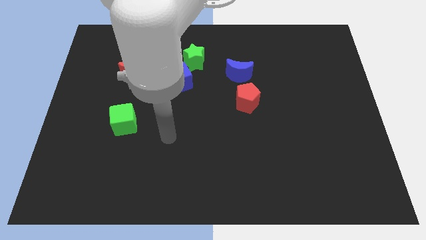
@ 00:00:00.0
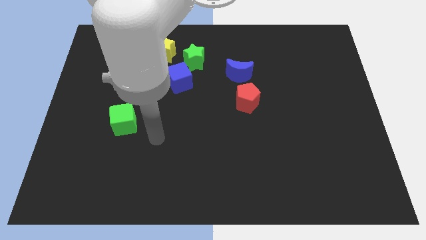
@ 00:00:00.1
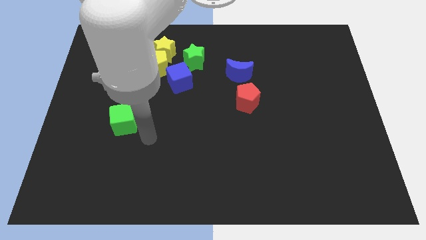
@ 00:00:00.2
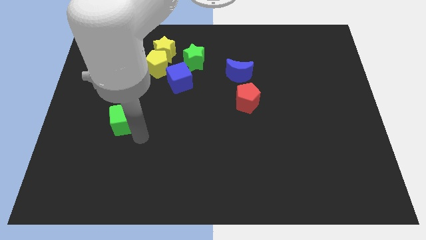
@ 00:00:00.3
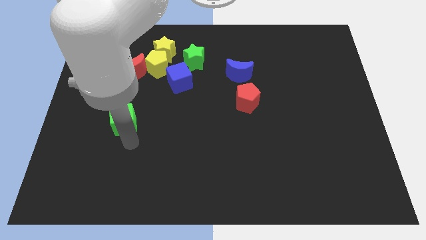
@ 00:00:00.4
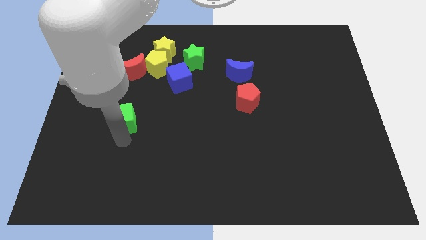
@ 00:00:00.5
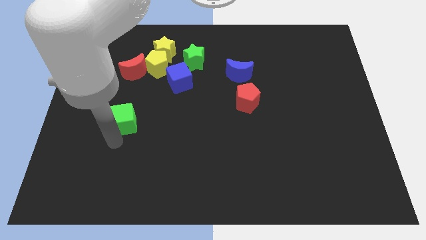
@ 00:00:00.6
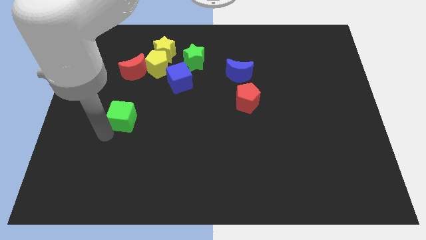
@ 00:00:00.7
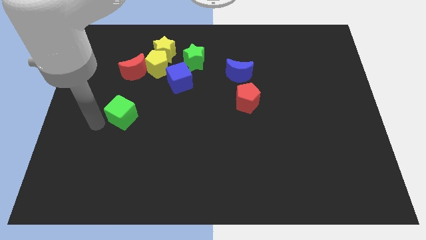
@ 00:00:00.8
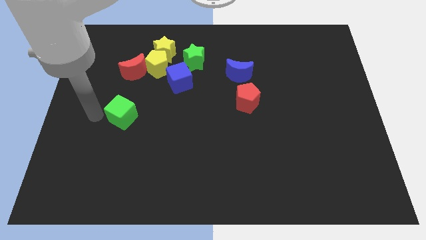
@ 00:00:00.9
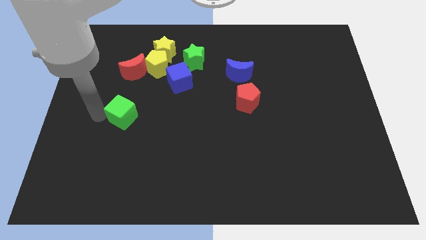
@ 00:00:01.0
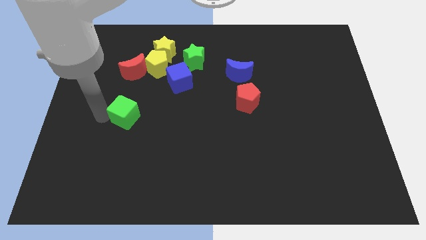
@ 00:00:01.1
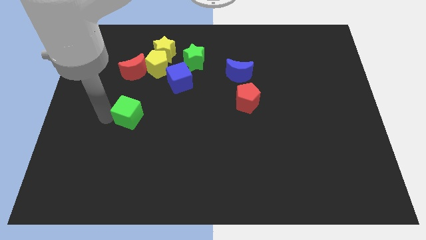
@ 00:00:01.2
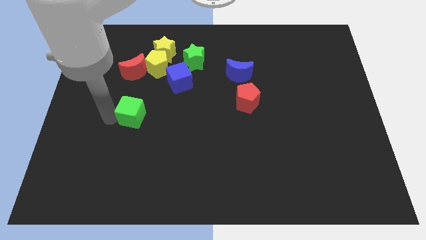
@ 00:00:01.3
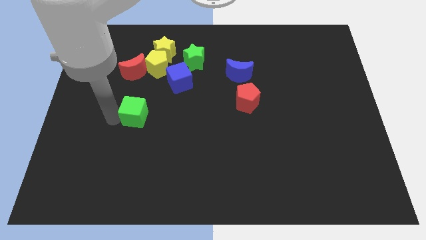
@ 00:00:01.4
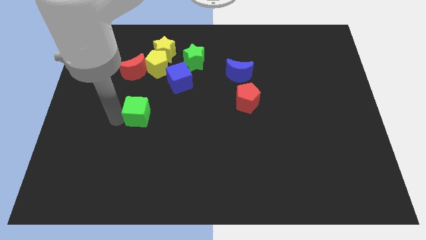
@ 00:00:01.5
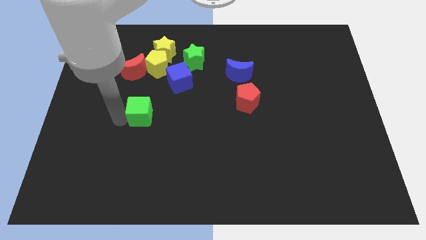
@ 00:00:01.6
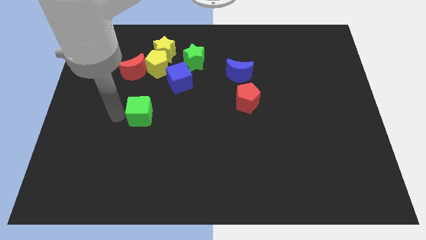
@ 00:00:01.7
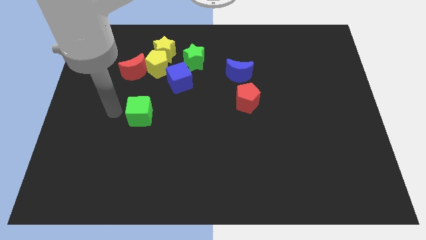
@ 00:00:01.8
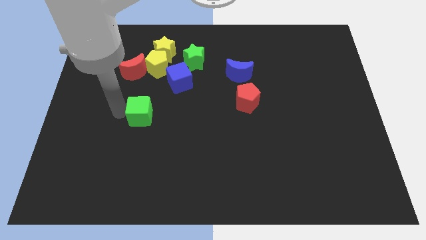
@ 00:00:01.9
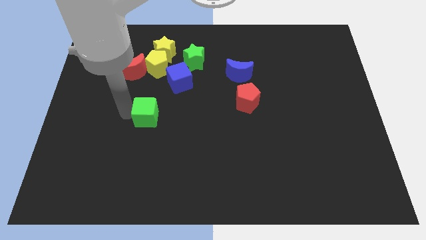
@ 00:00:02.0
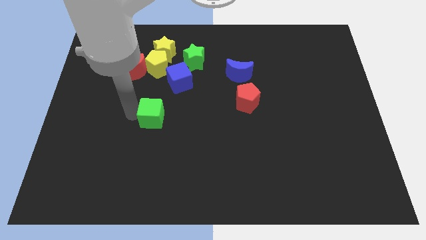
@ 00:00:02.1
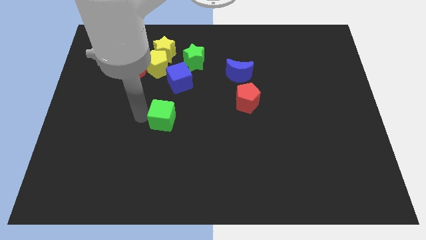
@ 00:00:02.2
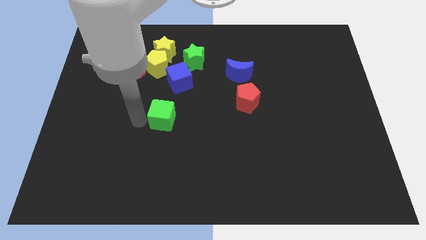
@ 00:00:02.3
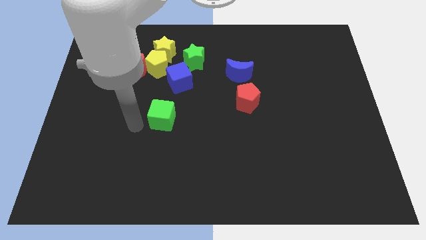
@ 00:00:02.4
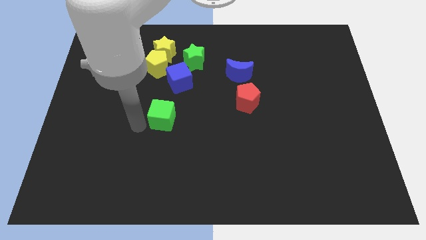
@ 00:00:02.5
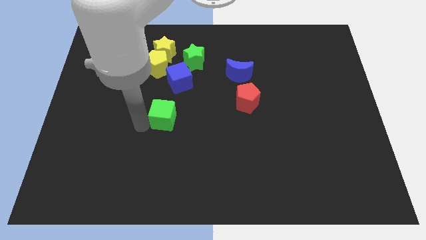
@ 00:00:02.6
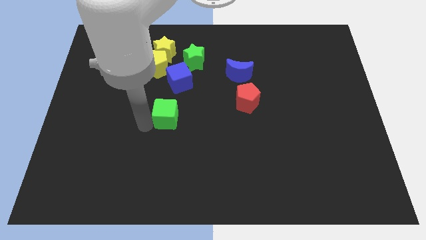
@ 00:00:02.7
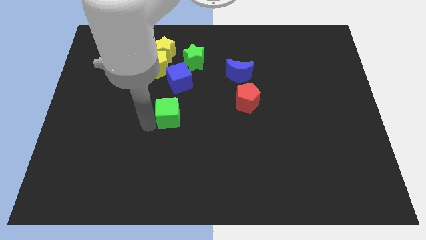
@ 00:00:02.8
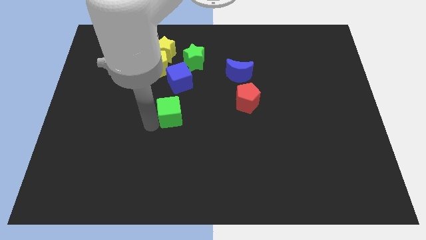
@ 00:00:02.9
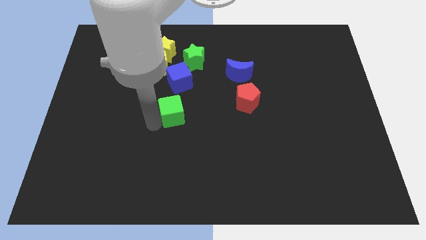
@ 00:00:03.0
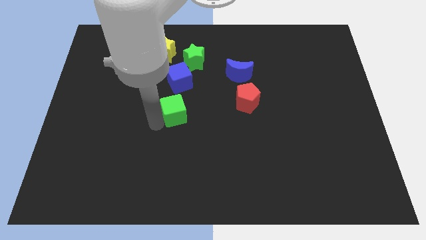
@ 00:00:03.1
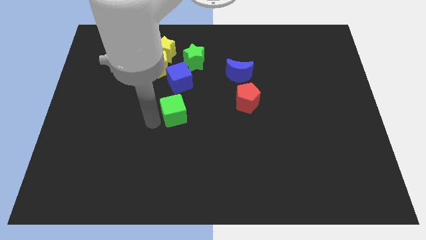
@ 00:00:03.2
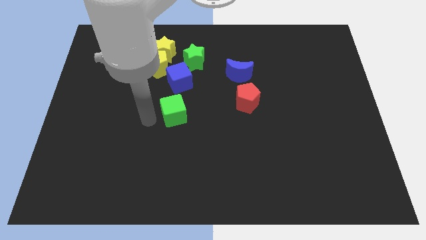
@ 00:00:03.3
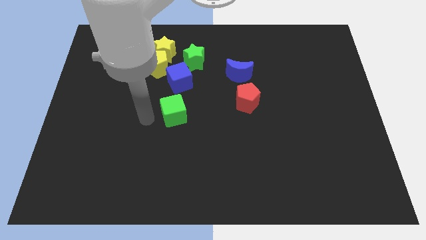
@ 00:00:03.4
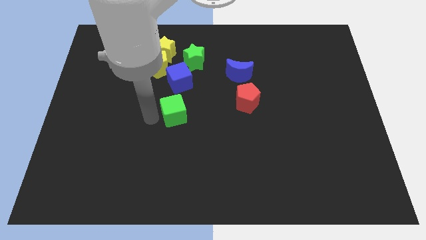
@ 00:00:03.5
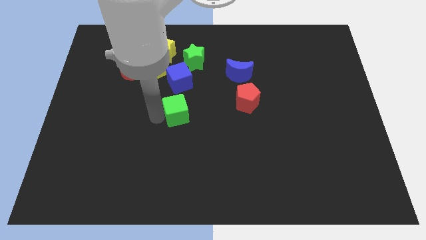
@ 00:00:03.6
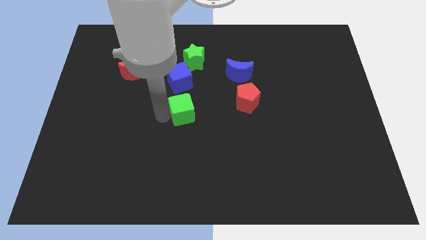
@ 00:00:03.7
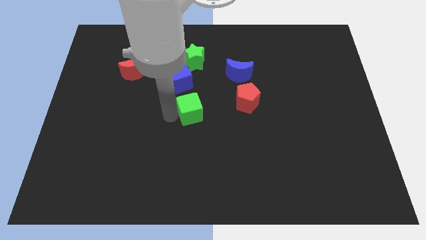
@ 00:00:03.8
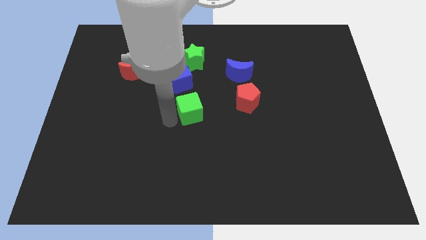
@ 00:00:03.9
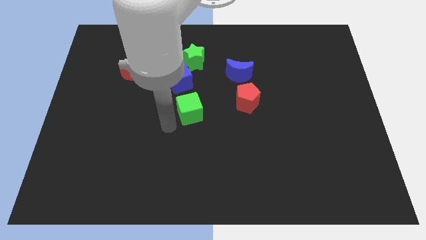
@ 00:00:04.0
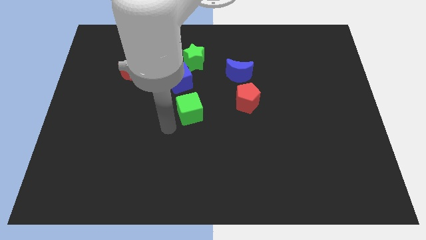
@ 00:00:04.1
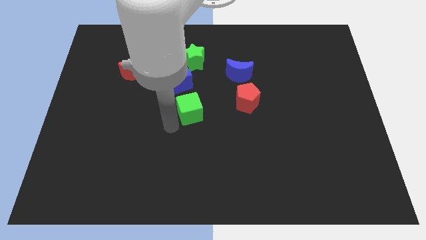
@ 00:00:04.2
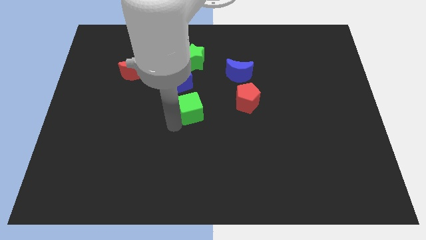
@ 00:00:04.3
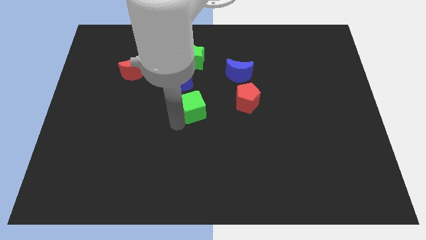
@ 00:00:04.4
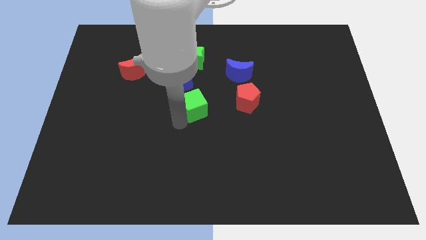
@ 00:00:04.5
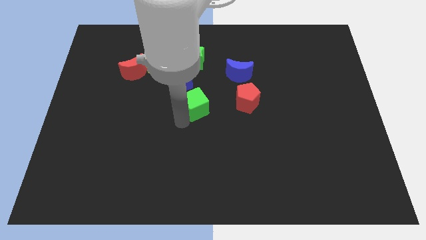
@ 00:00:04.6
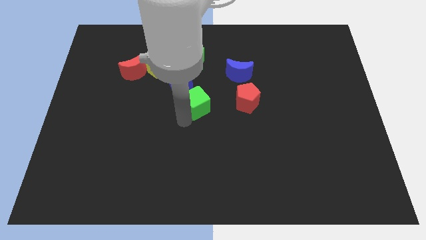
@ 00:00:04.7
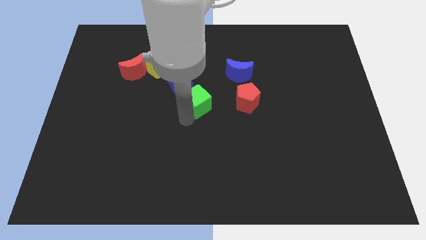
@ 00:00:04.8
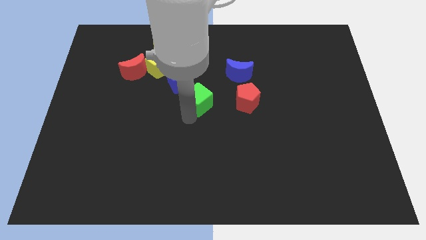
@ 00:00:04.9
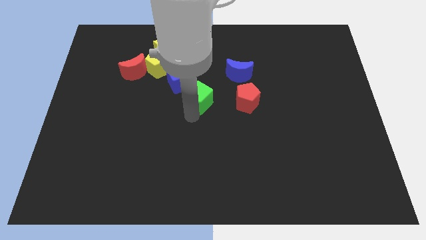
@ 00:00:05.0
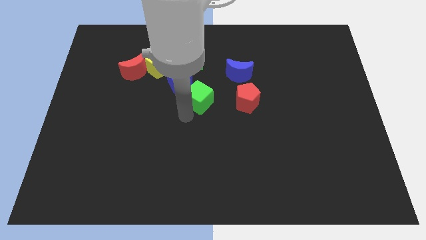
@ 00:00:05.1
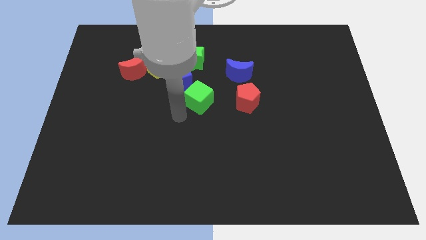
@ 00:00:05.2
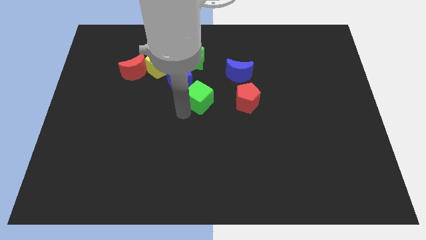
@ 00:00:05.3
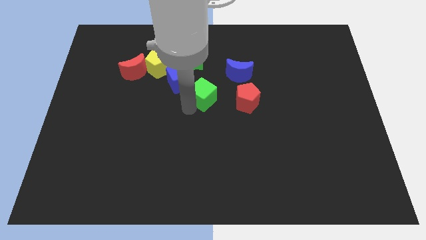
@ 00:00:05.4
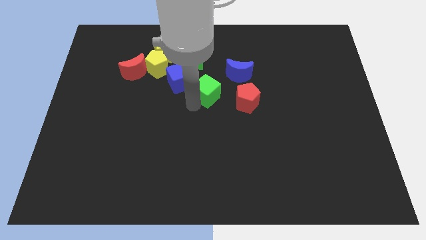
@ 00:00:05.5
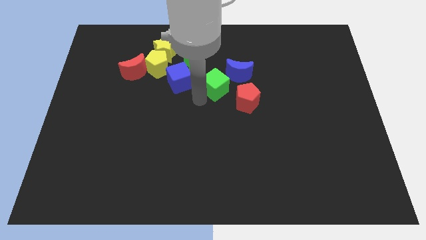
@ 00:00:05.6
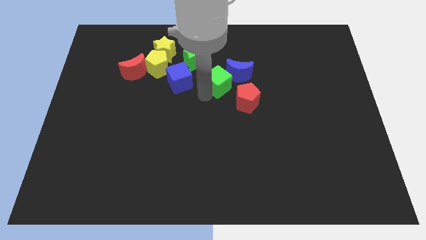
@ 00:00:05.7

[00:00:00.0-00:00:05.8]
move the green cube next to the blue moon
